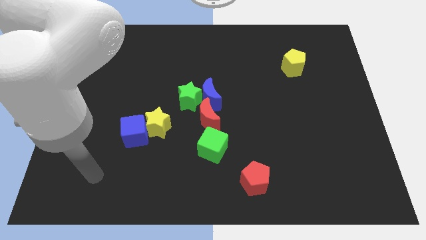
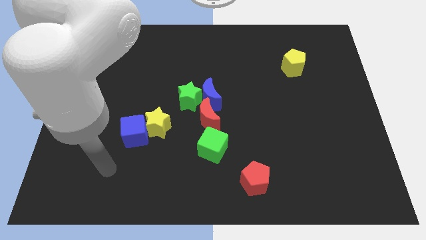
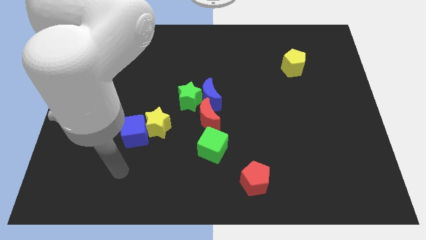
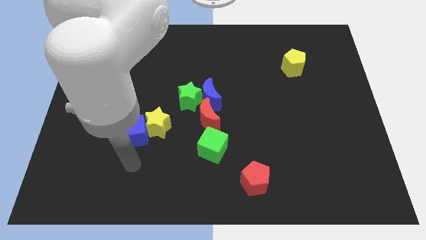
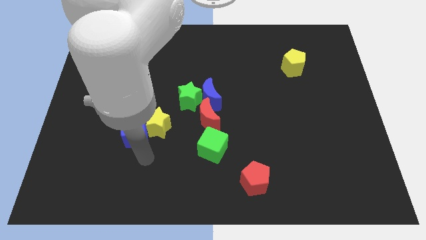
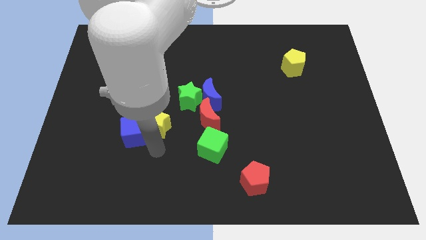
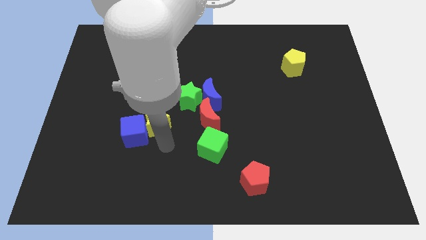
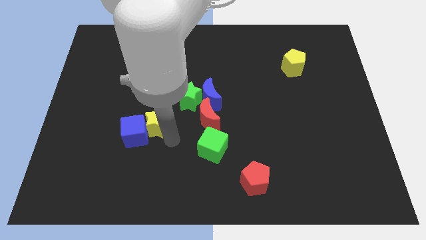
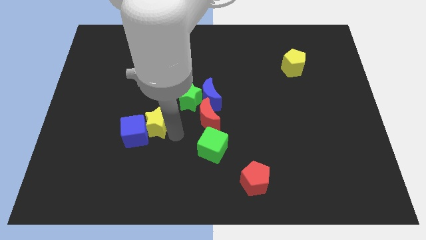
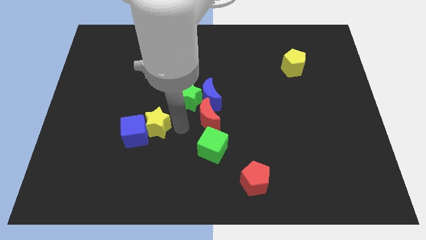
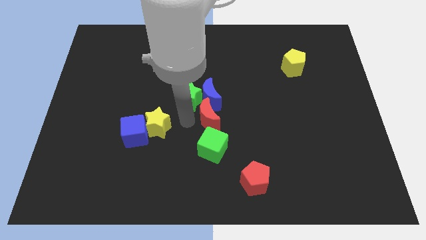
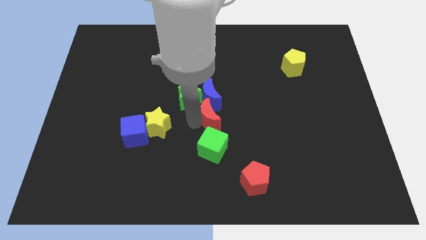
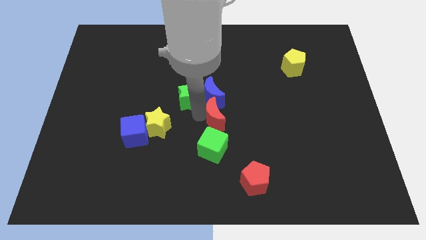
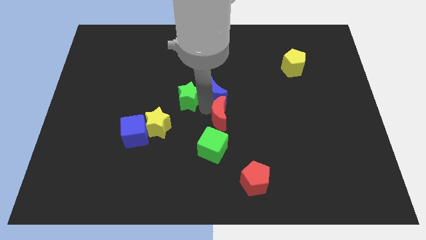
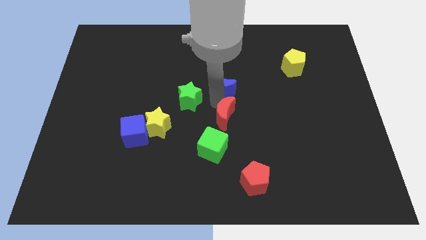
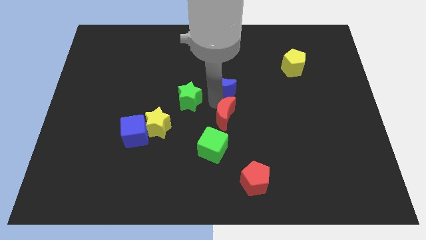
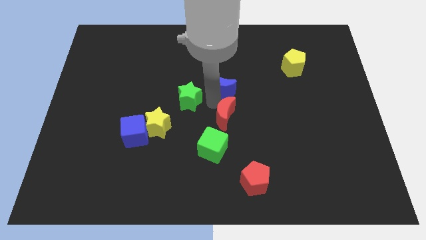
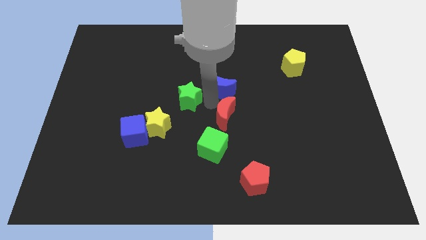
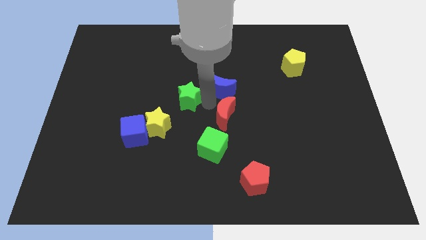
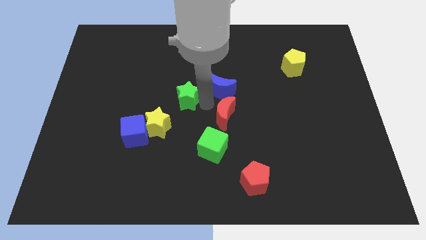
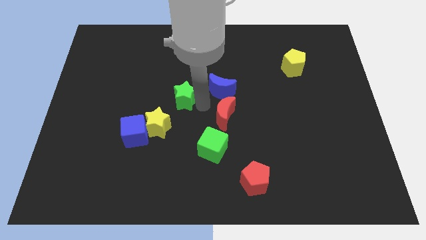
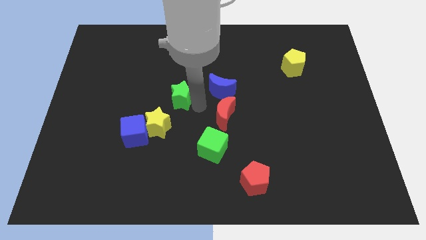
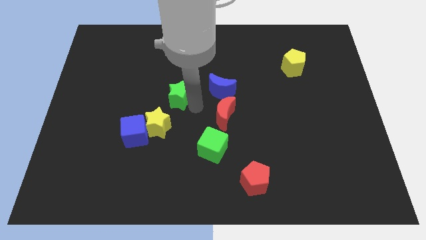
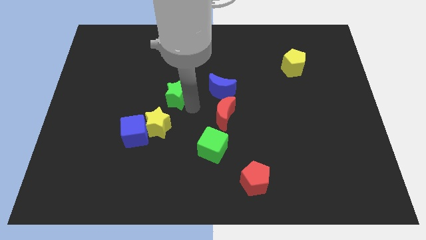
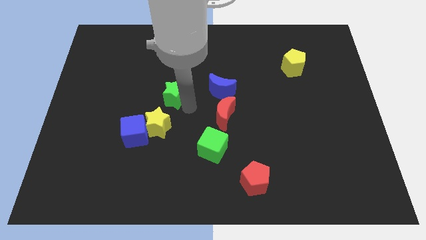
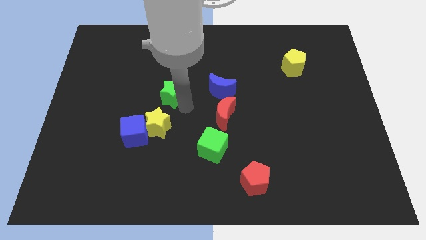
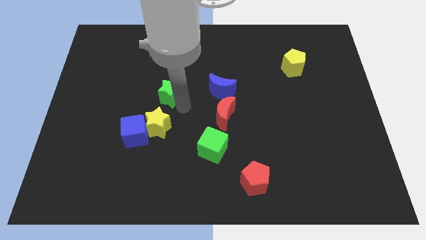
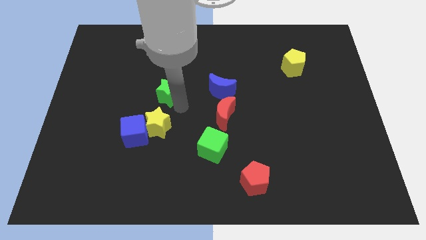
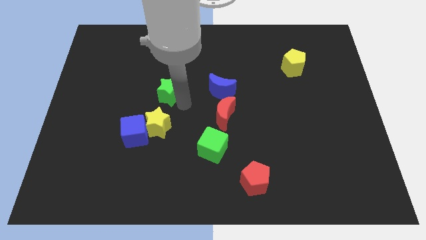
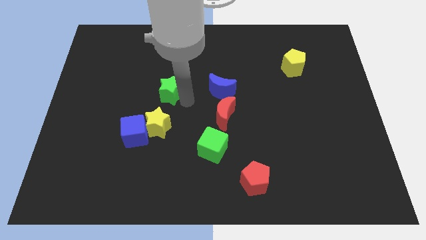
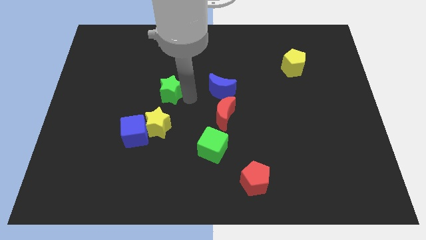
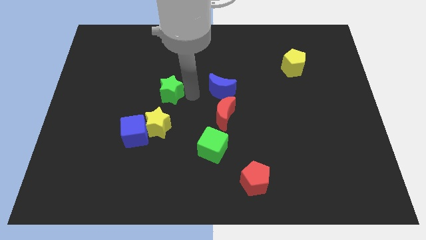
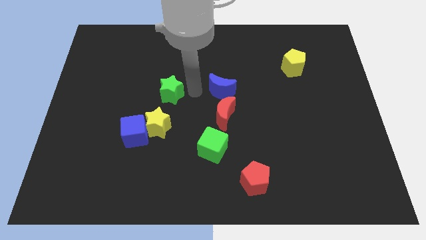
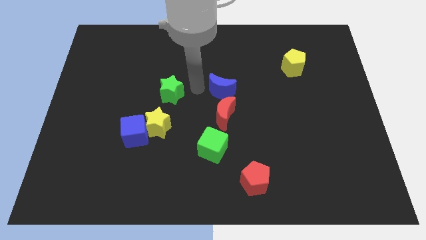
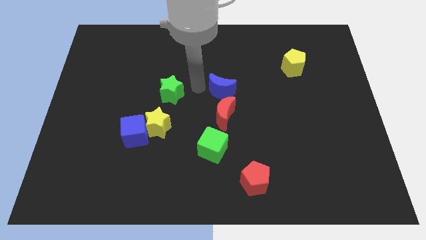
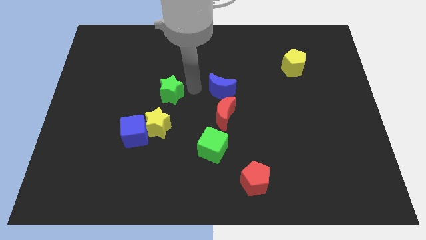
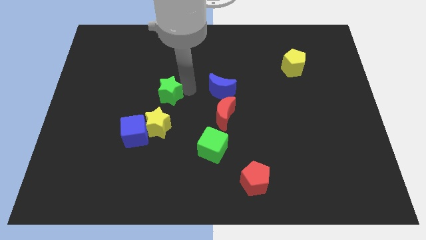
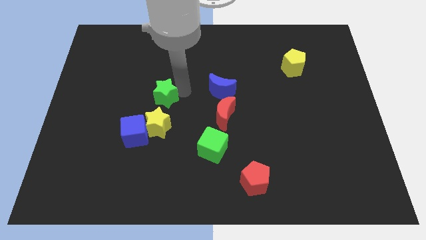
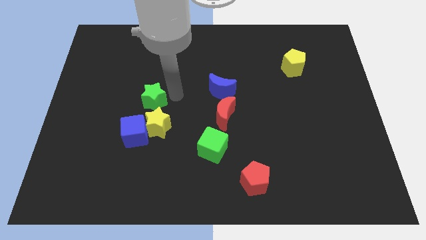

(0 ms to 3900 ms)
slide the green star a bit left

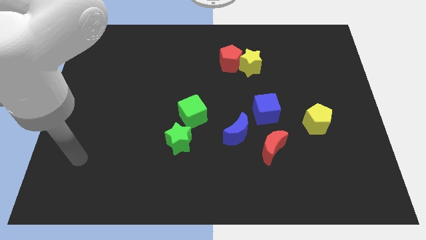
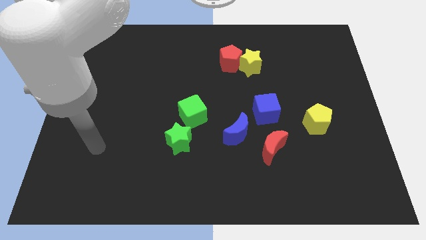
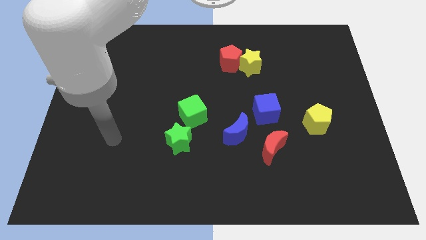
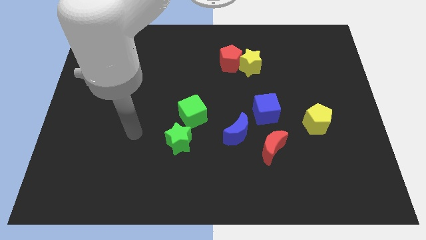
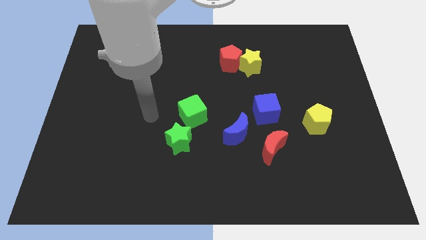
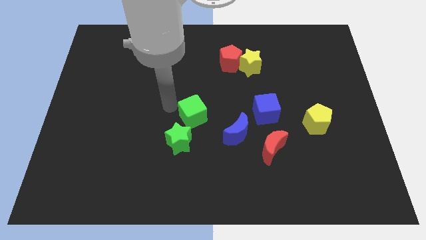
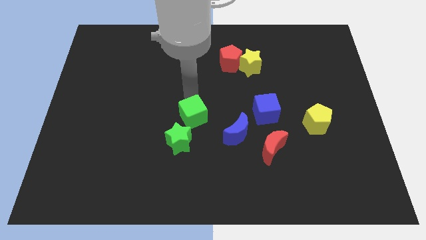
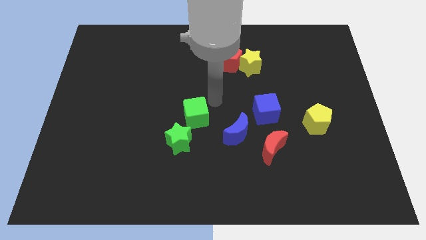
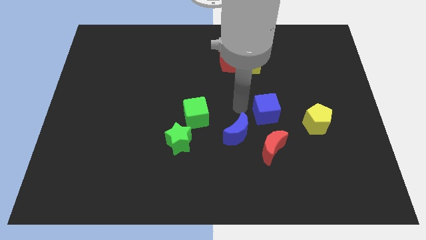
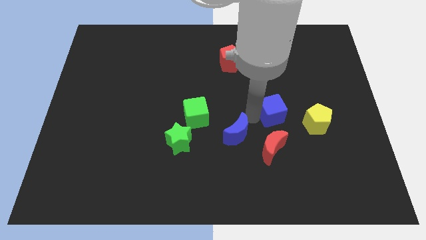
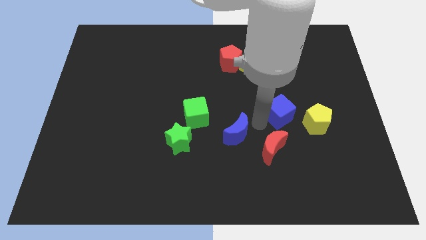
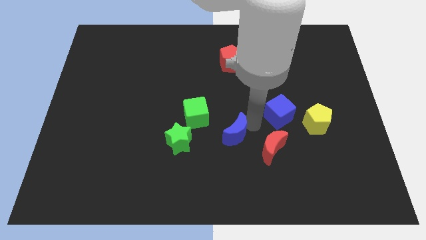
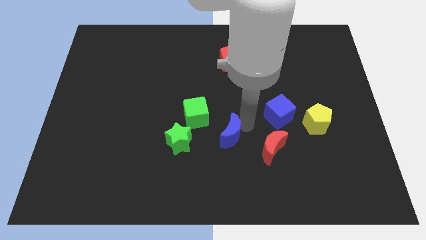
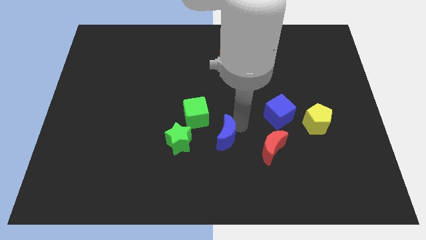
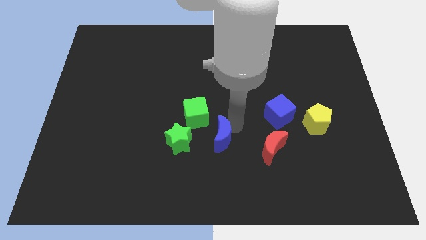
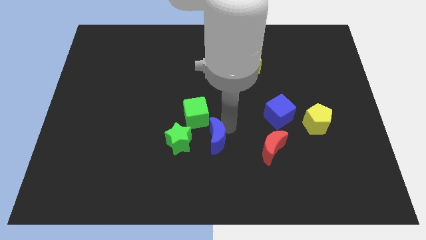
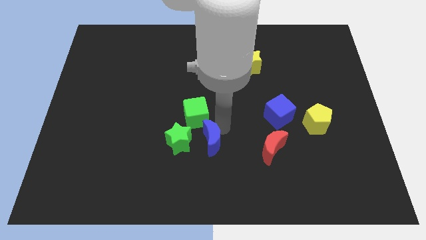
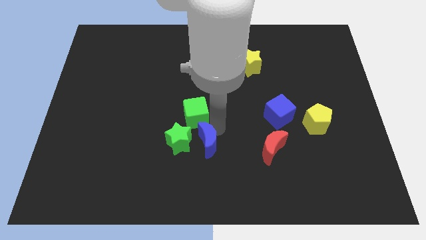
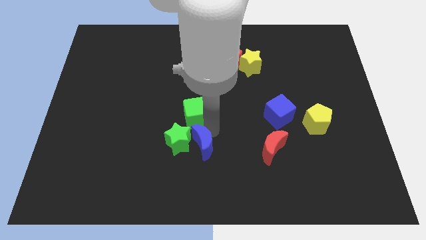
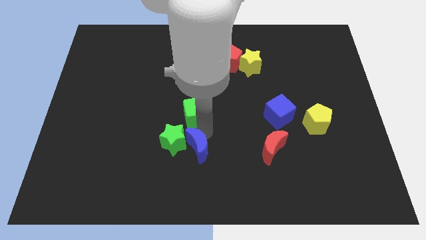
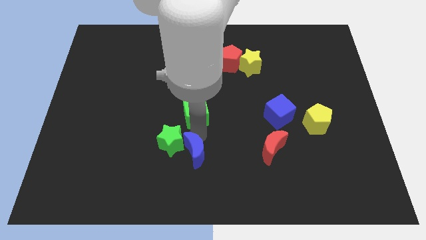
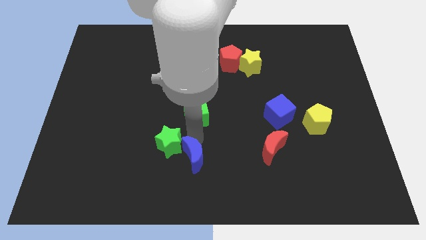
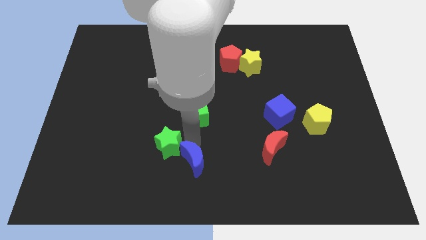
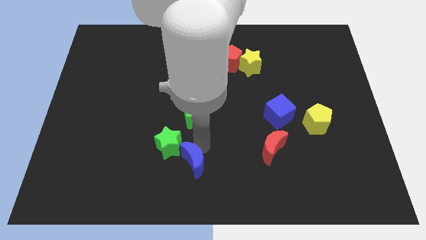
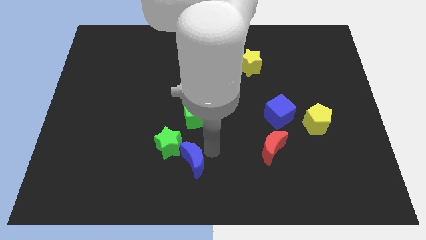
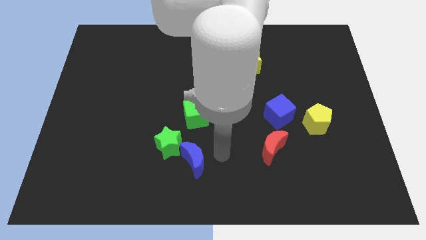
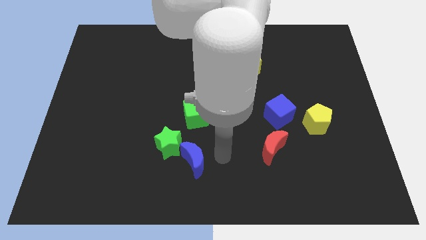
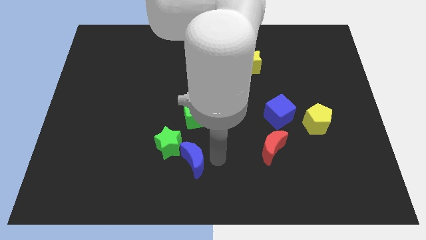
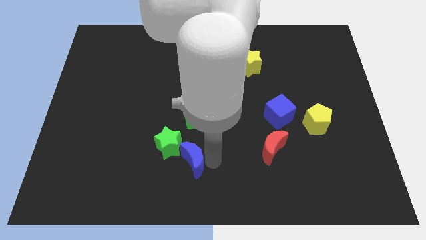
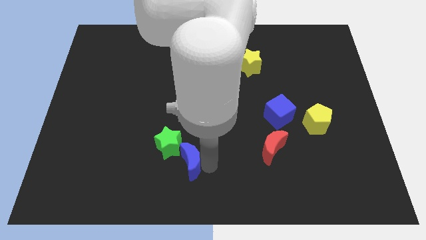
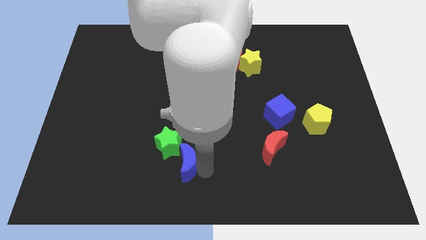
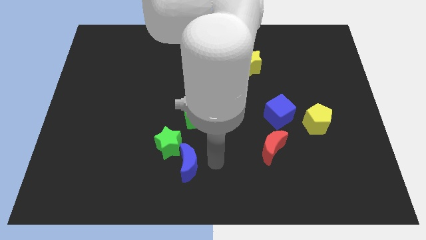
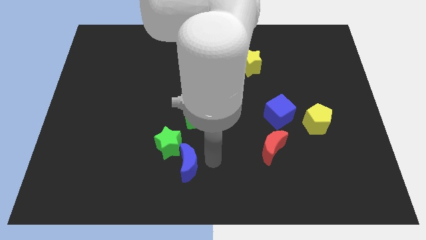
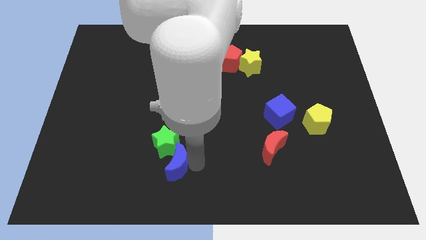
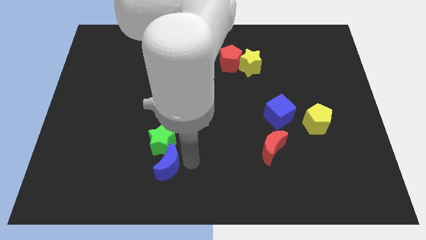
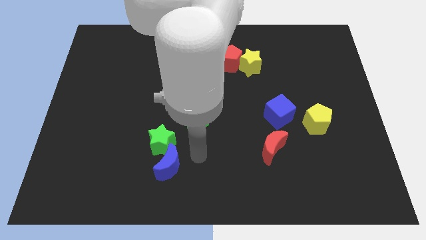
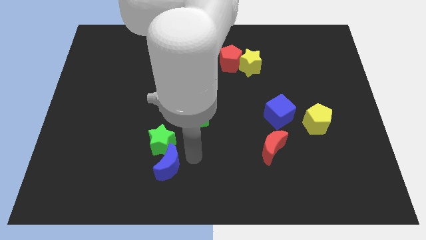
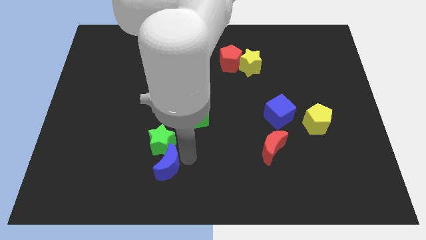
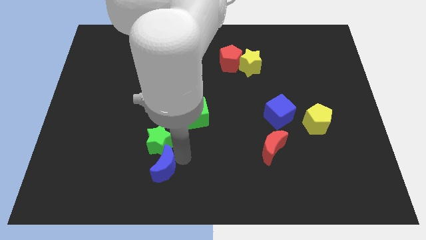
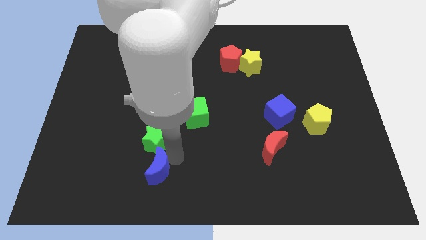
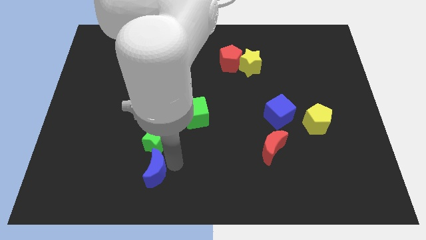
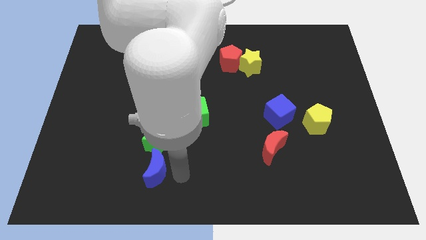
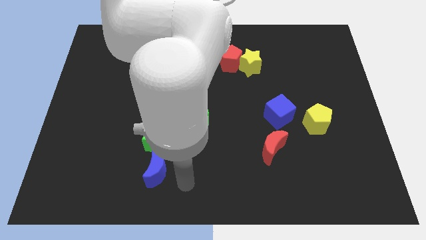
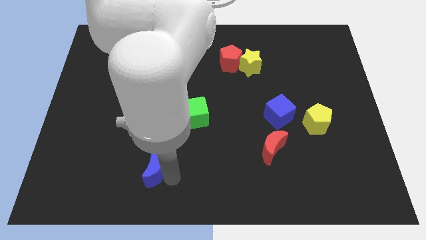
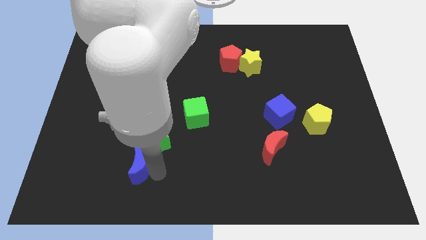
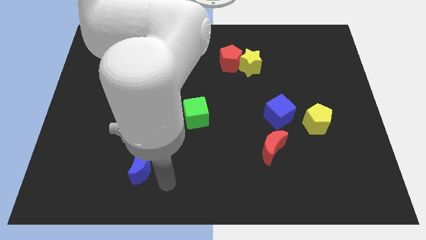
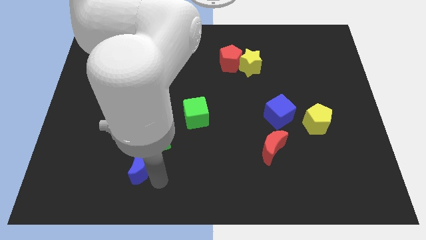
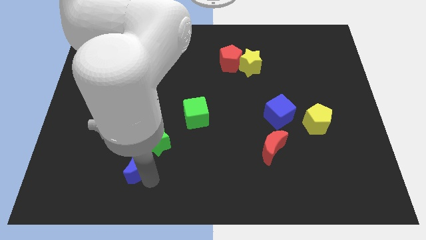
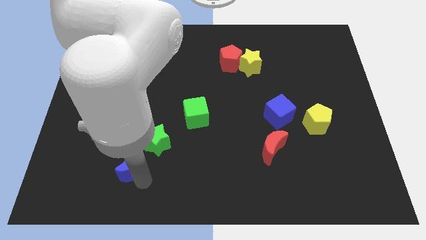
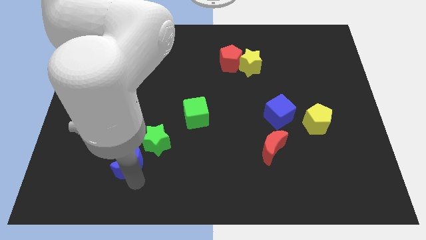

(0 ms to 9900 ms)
slide the blue moon left
